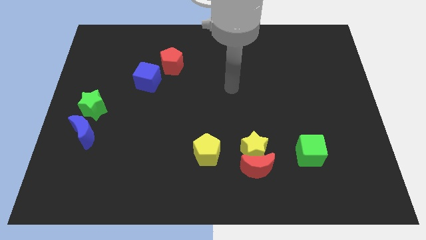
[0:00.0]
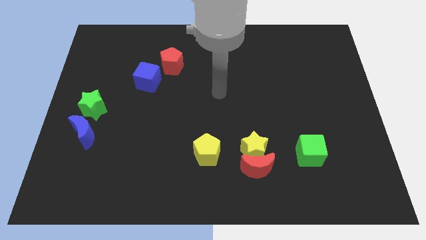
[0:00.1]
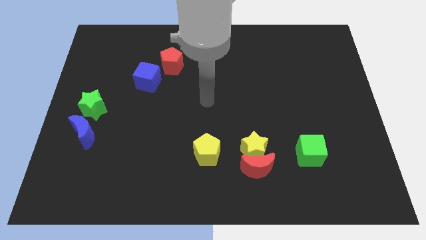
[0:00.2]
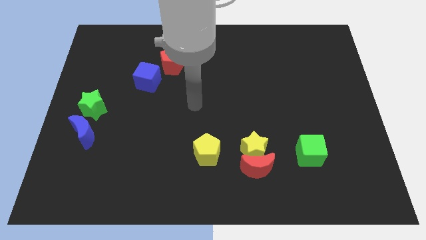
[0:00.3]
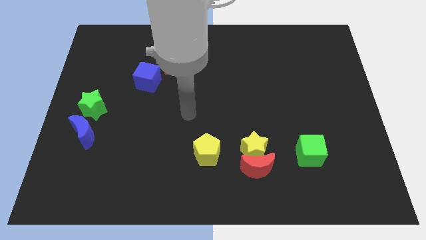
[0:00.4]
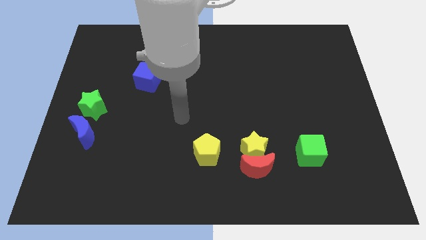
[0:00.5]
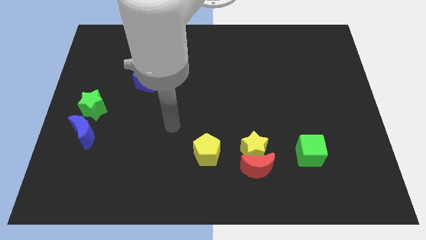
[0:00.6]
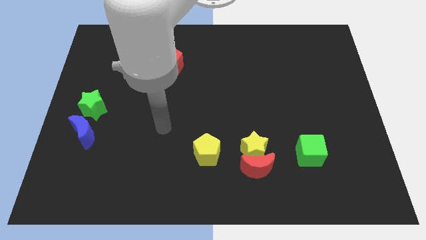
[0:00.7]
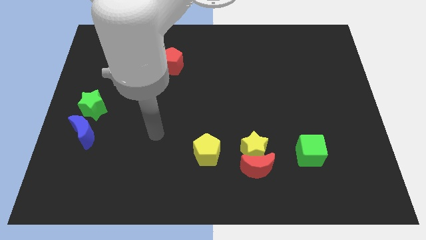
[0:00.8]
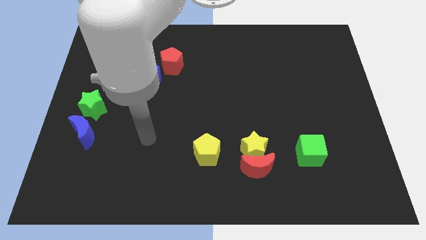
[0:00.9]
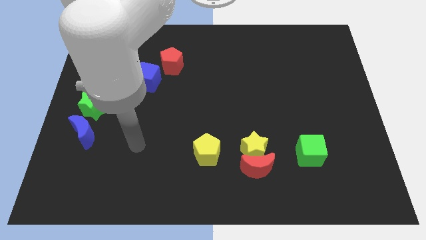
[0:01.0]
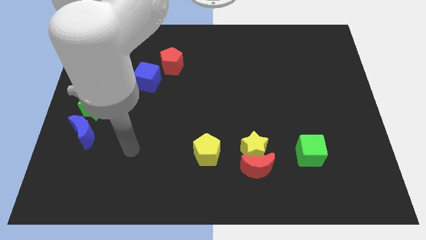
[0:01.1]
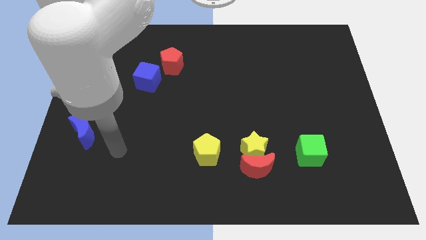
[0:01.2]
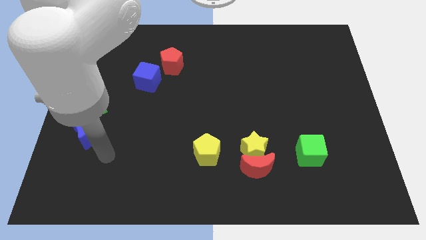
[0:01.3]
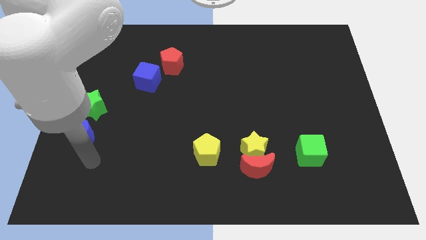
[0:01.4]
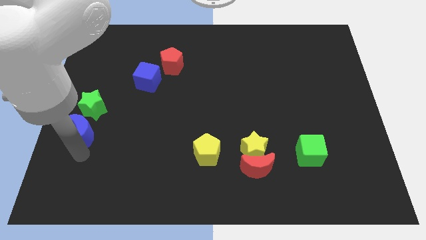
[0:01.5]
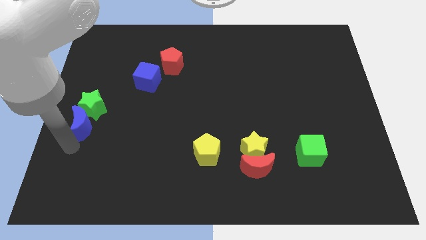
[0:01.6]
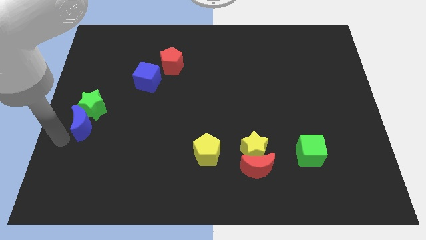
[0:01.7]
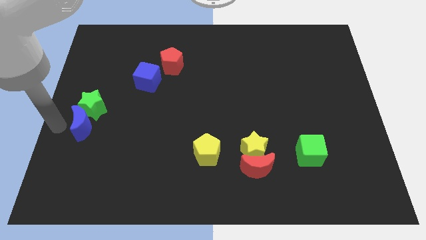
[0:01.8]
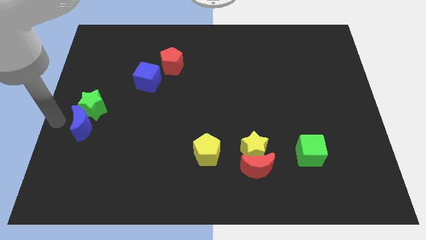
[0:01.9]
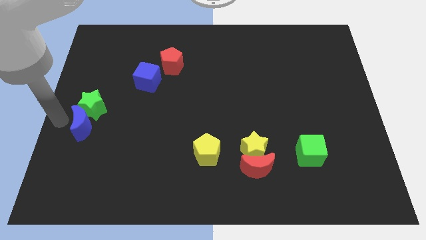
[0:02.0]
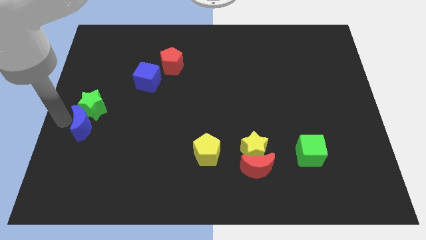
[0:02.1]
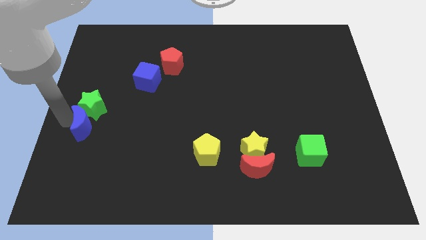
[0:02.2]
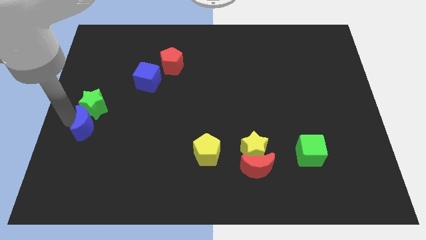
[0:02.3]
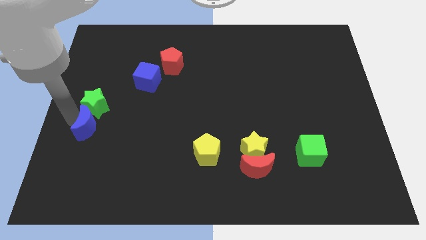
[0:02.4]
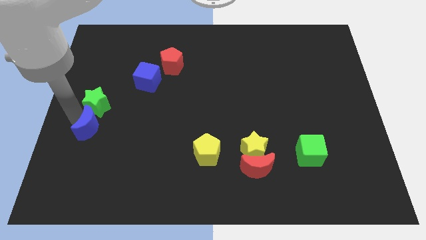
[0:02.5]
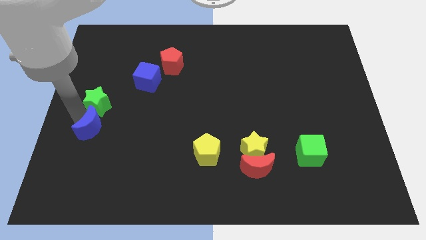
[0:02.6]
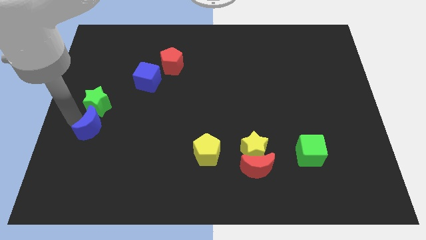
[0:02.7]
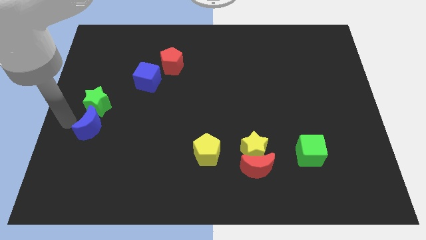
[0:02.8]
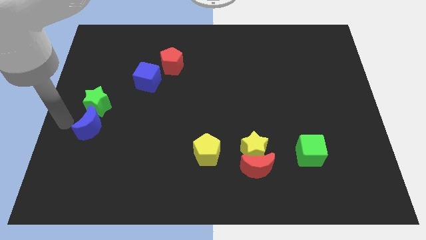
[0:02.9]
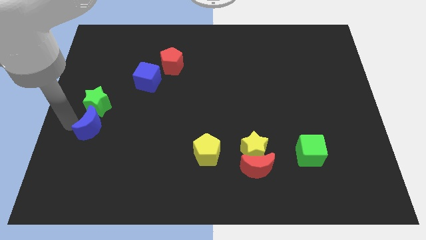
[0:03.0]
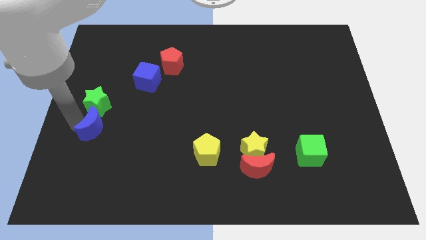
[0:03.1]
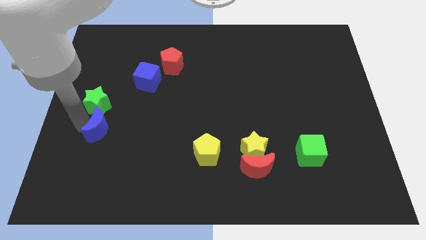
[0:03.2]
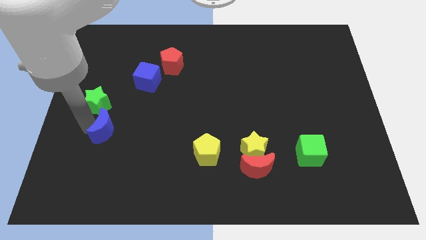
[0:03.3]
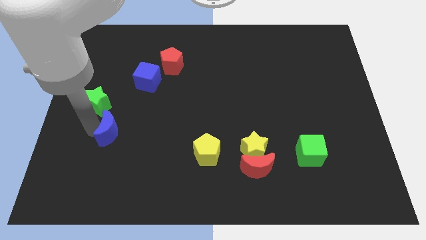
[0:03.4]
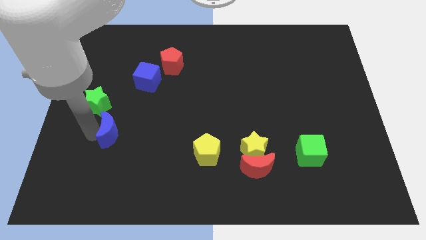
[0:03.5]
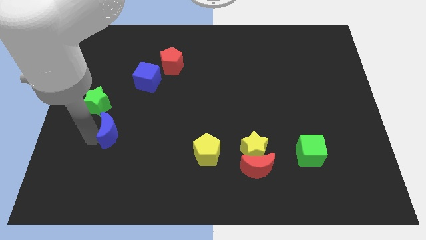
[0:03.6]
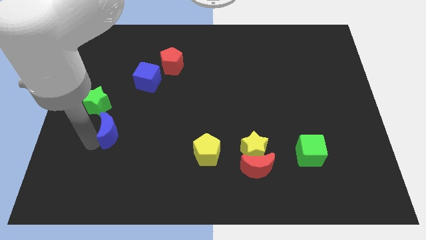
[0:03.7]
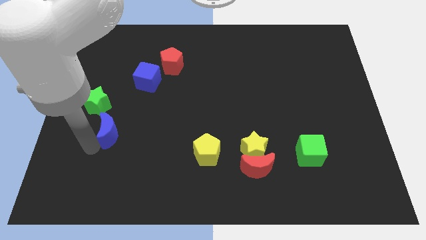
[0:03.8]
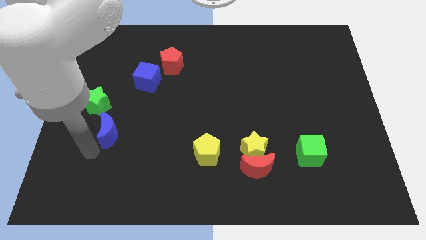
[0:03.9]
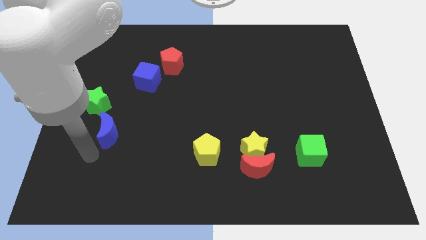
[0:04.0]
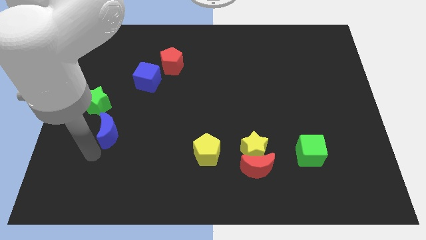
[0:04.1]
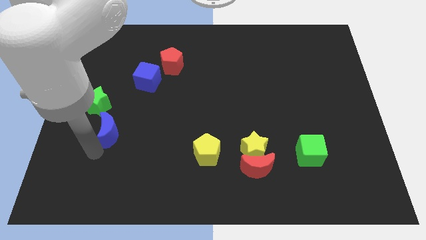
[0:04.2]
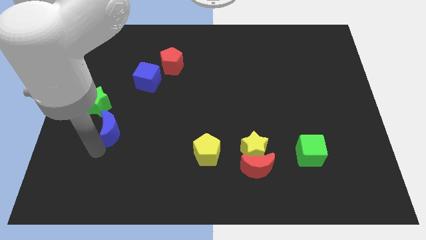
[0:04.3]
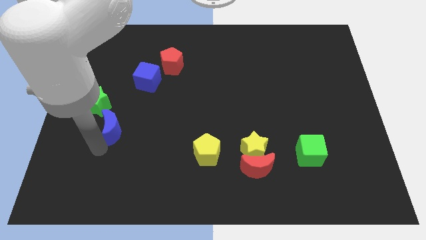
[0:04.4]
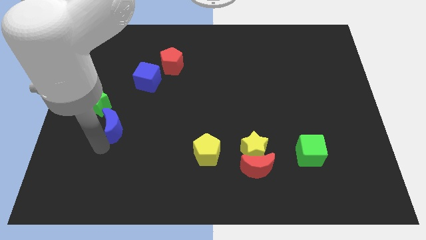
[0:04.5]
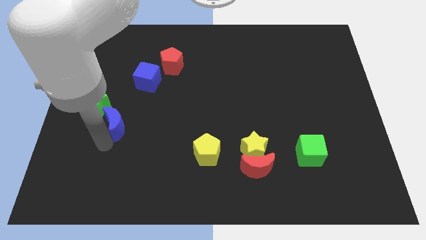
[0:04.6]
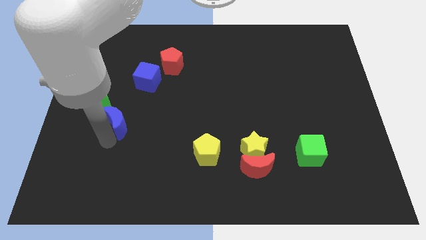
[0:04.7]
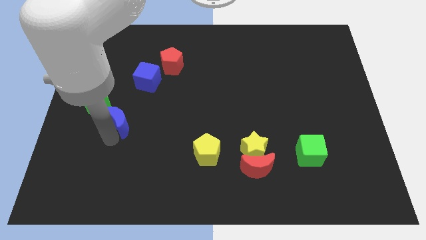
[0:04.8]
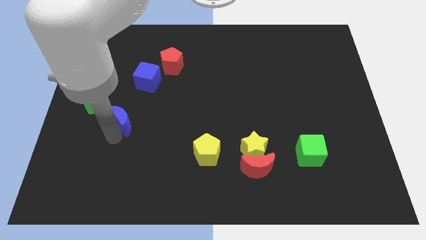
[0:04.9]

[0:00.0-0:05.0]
slide the blue moon to the right of the green star

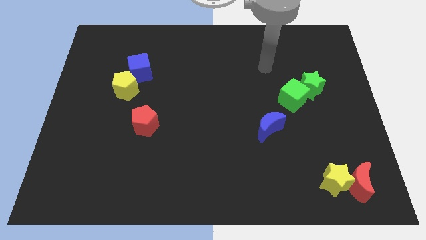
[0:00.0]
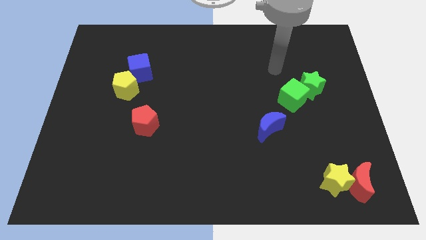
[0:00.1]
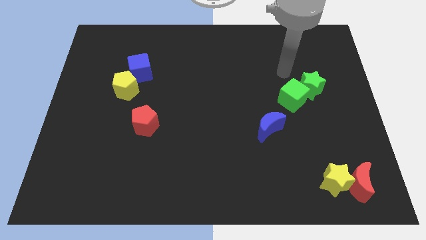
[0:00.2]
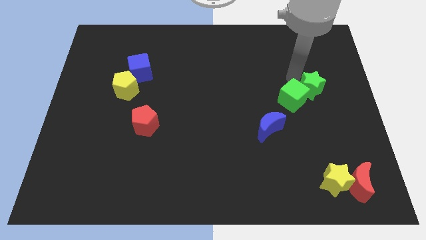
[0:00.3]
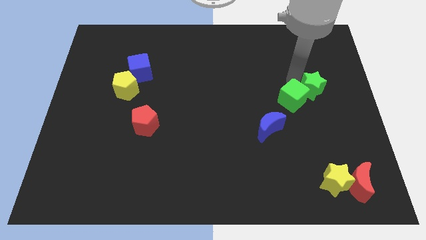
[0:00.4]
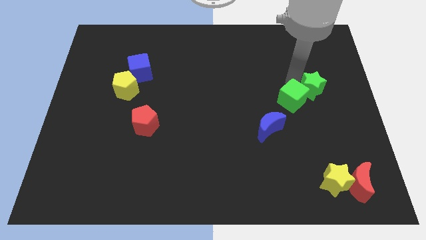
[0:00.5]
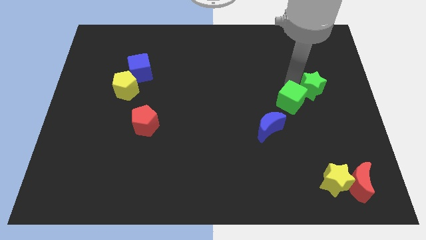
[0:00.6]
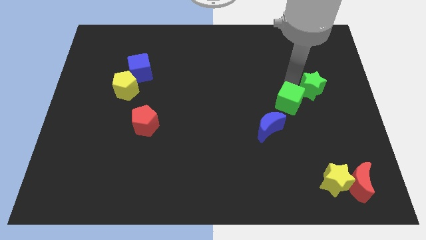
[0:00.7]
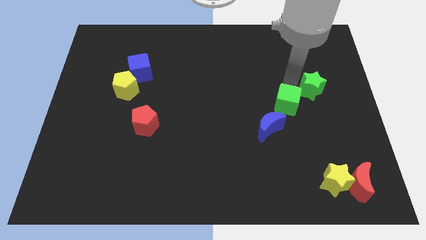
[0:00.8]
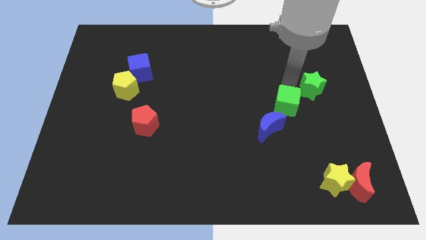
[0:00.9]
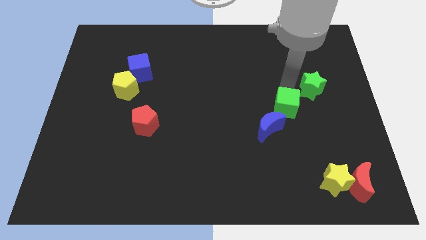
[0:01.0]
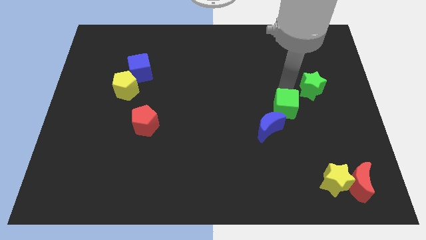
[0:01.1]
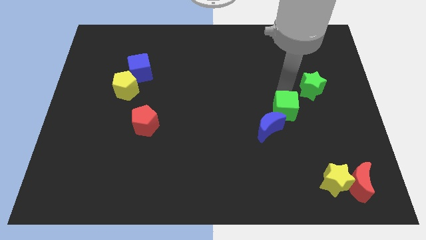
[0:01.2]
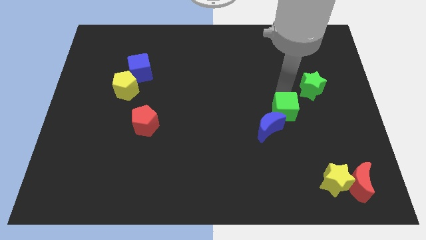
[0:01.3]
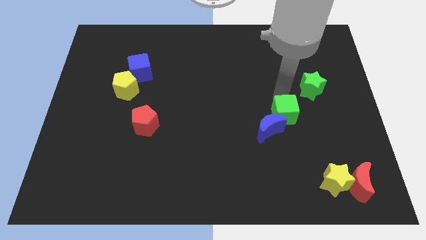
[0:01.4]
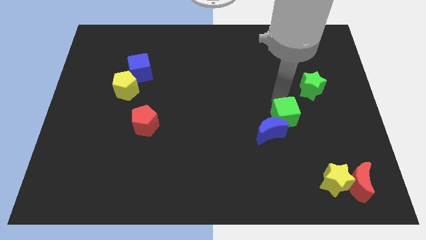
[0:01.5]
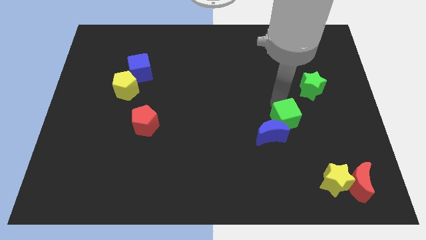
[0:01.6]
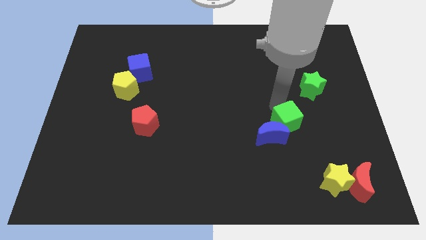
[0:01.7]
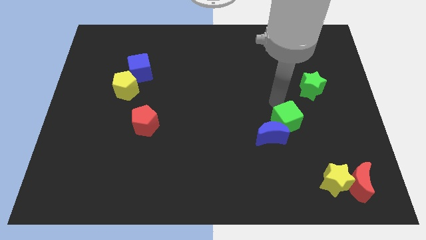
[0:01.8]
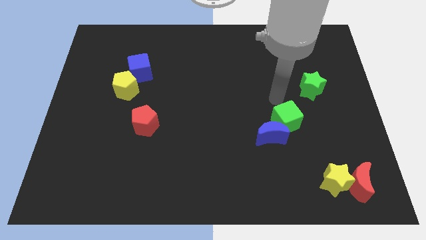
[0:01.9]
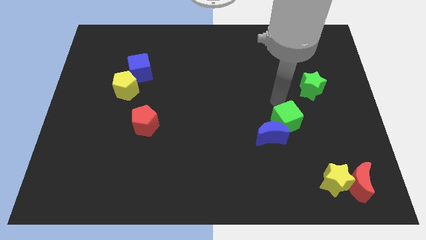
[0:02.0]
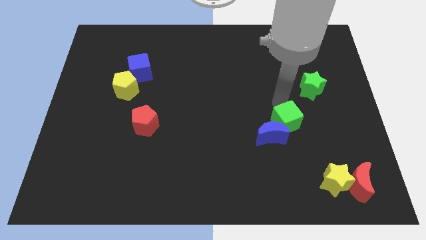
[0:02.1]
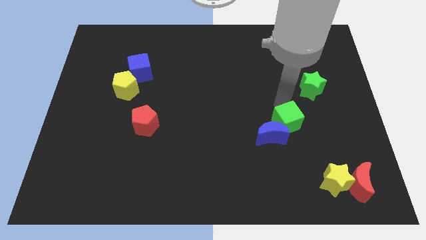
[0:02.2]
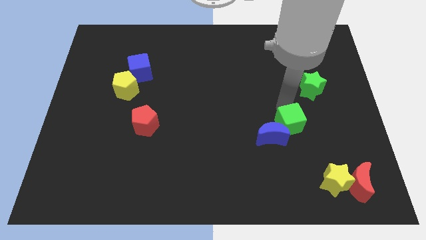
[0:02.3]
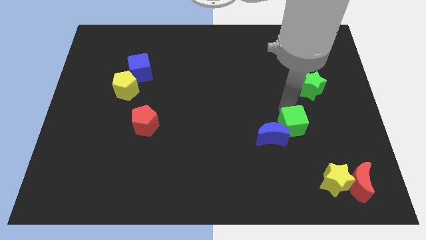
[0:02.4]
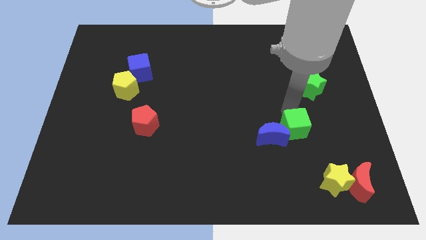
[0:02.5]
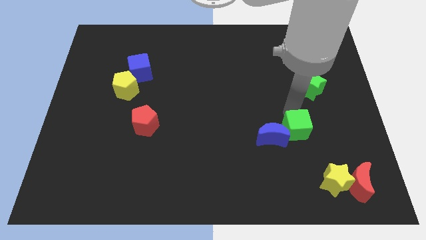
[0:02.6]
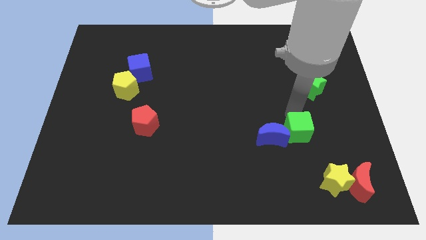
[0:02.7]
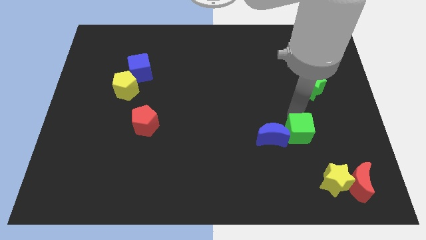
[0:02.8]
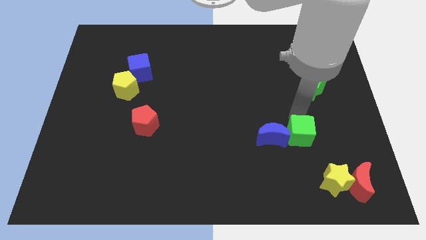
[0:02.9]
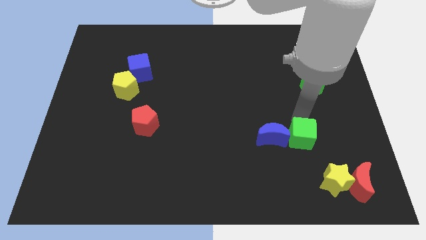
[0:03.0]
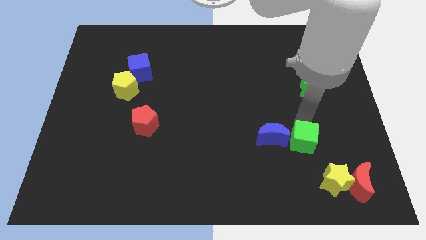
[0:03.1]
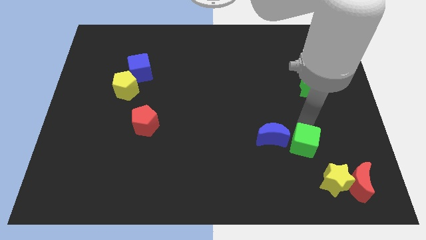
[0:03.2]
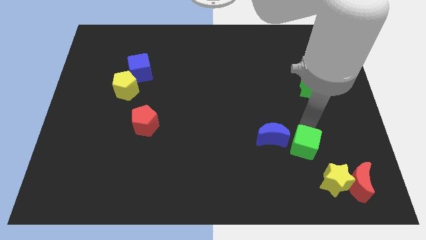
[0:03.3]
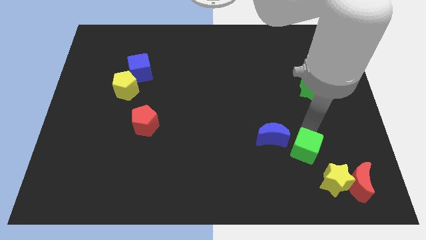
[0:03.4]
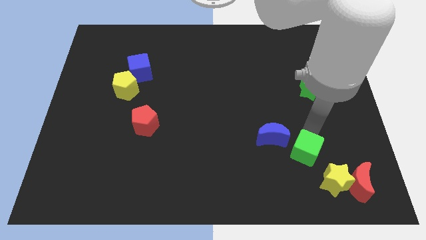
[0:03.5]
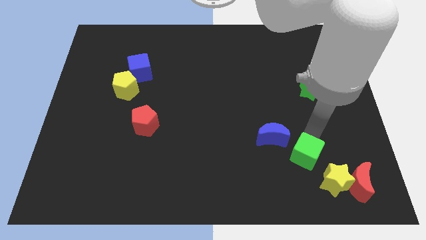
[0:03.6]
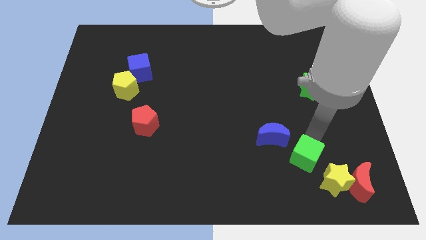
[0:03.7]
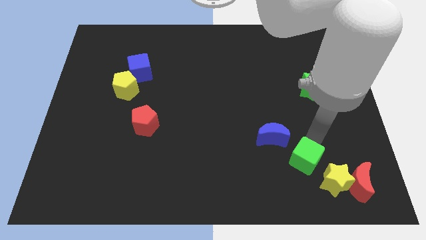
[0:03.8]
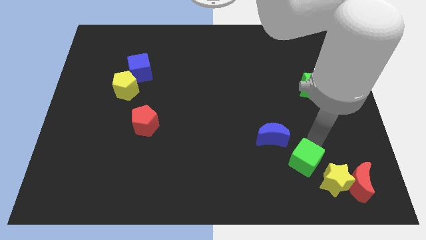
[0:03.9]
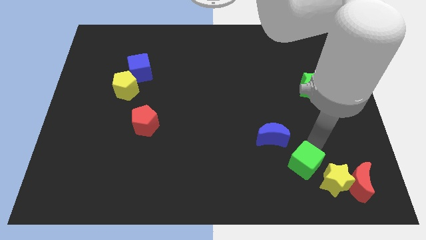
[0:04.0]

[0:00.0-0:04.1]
put the green cube to the left side of the yellow star
